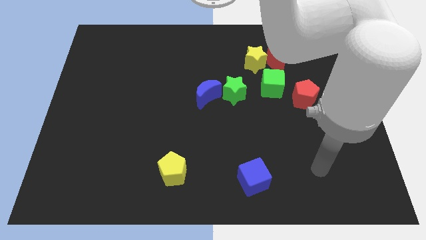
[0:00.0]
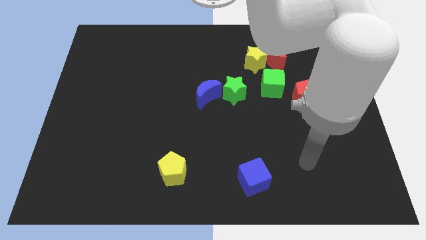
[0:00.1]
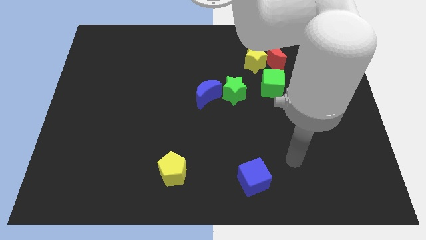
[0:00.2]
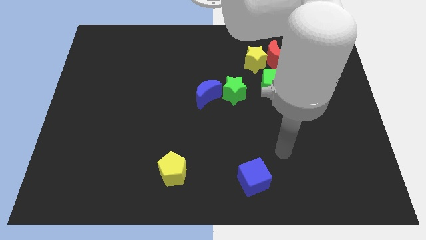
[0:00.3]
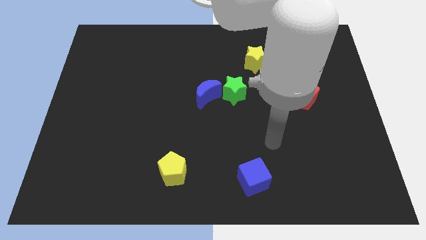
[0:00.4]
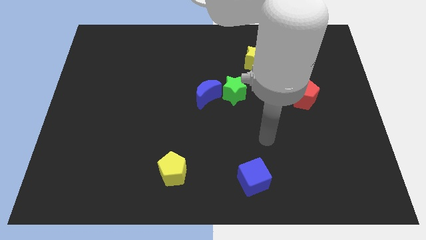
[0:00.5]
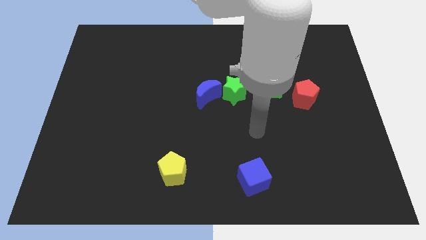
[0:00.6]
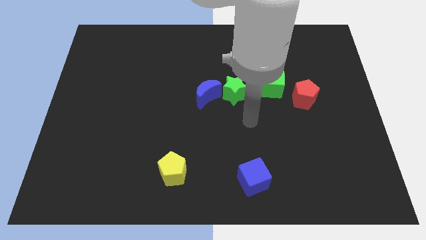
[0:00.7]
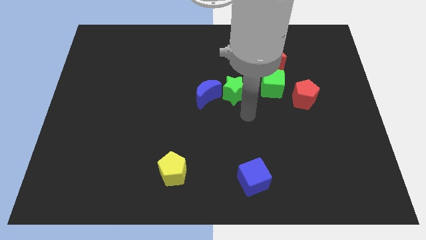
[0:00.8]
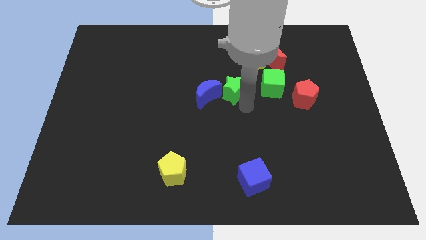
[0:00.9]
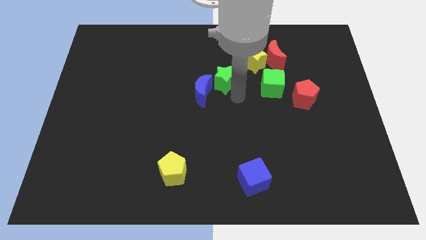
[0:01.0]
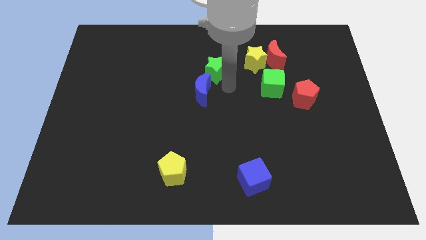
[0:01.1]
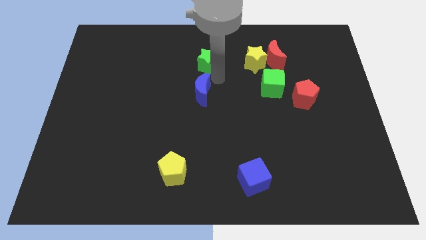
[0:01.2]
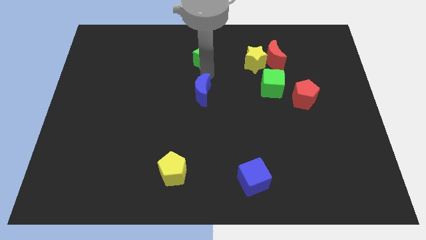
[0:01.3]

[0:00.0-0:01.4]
move the blue moon away from the green star

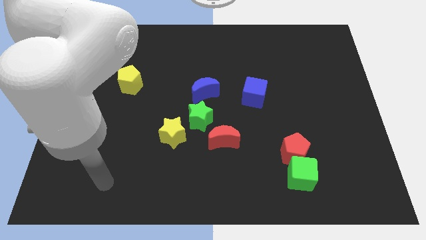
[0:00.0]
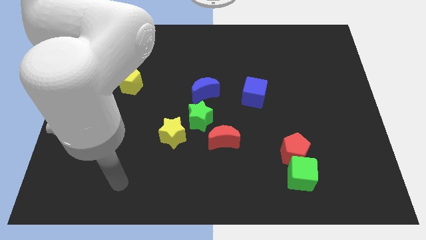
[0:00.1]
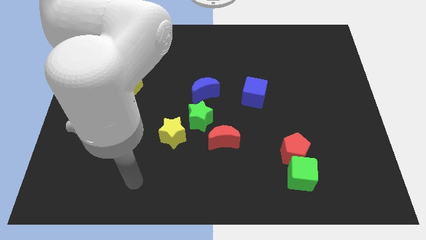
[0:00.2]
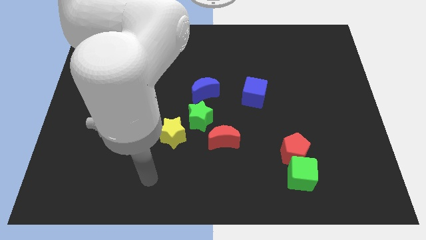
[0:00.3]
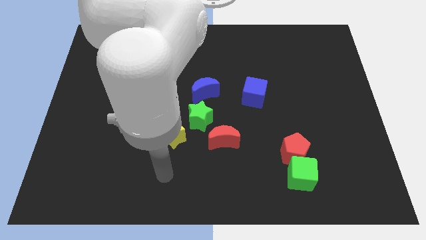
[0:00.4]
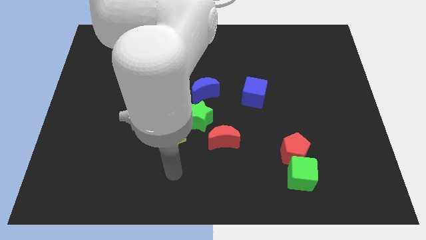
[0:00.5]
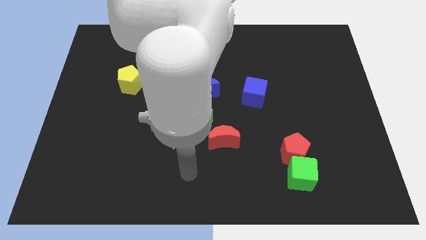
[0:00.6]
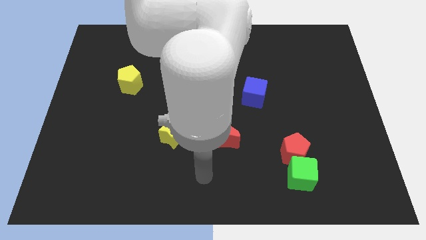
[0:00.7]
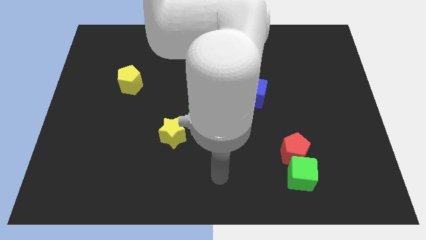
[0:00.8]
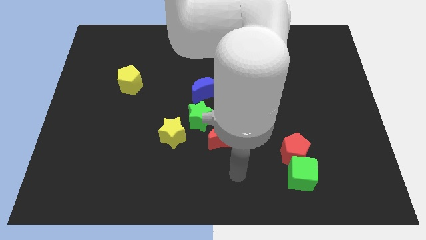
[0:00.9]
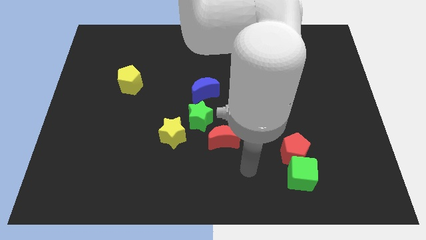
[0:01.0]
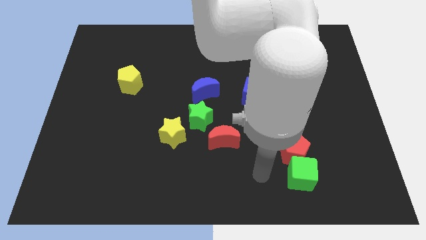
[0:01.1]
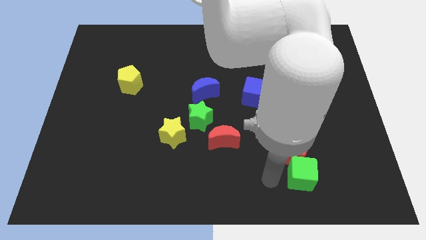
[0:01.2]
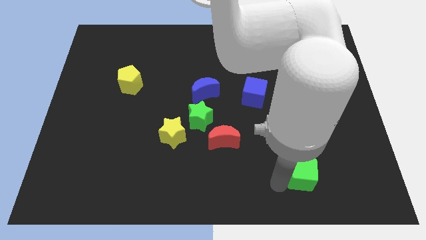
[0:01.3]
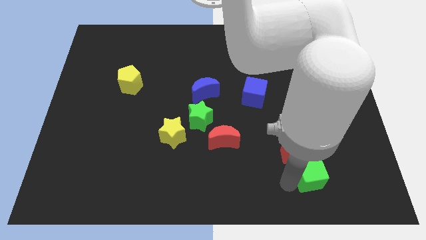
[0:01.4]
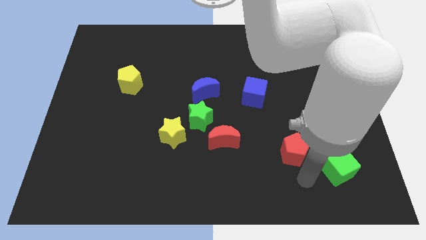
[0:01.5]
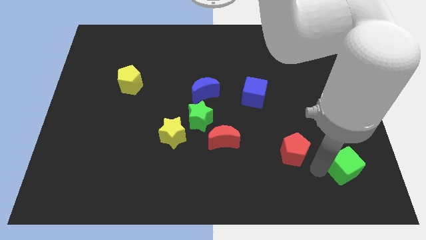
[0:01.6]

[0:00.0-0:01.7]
move the red pentagon away from the green cube

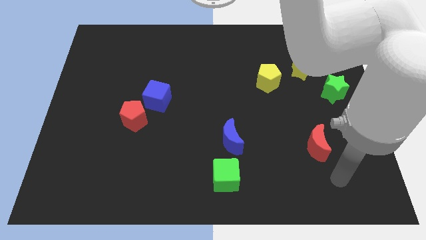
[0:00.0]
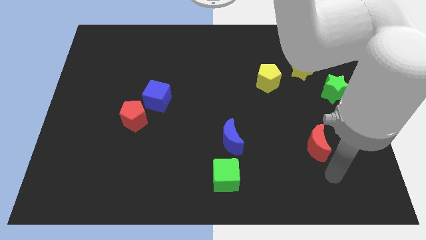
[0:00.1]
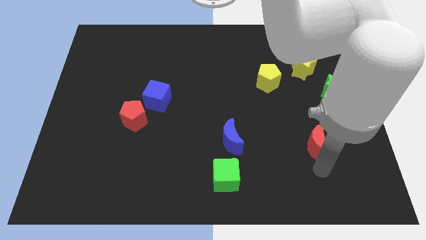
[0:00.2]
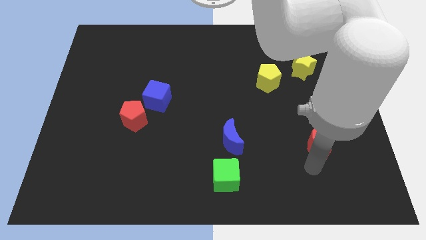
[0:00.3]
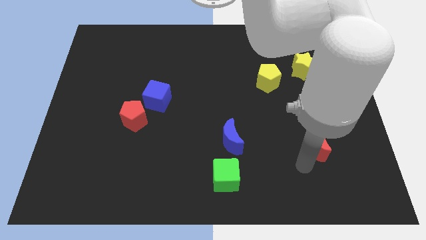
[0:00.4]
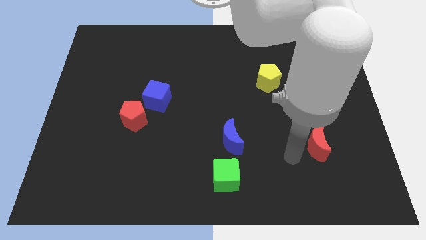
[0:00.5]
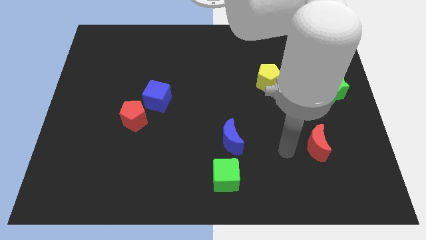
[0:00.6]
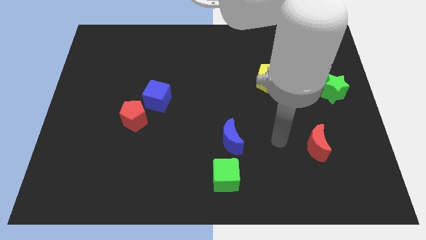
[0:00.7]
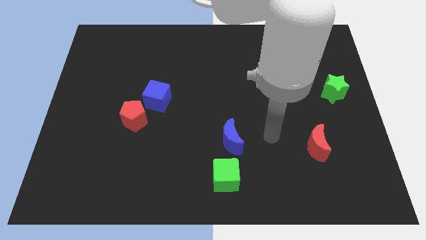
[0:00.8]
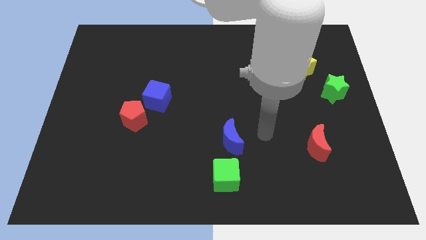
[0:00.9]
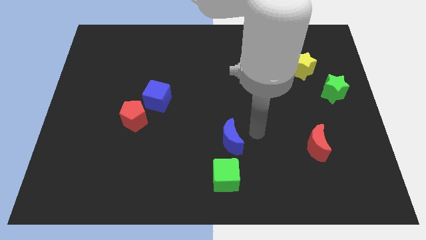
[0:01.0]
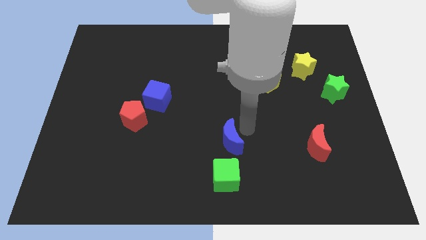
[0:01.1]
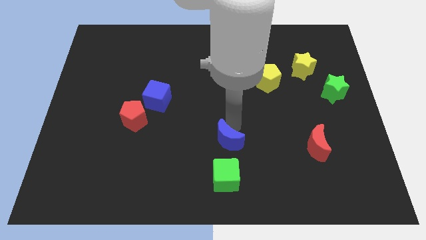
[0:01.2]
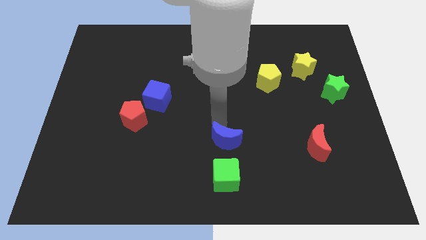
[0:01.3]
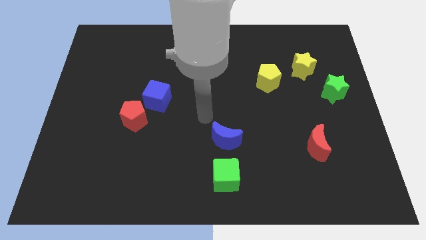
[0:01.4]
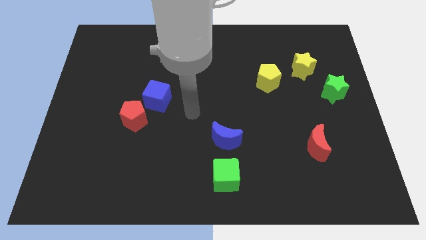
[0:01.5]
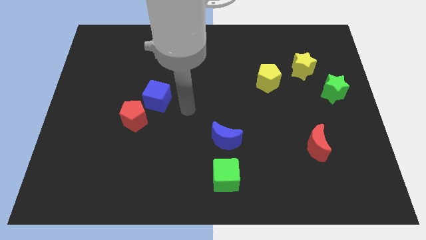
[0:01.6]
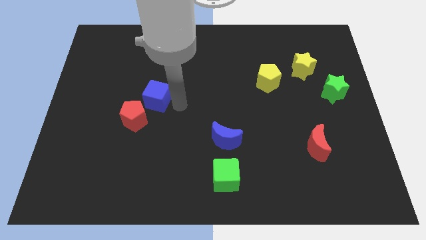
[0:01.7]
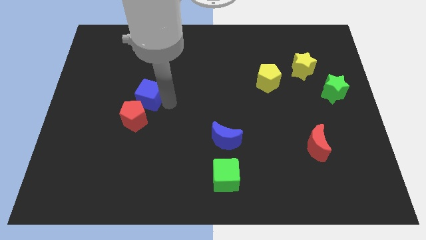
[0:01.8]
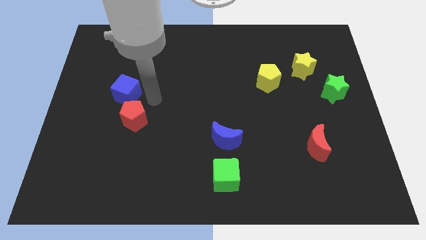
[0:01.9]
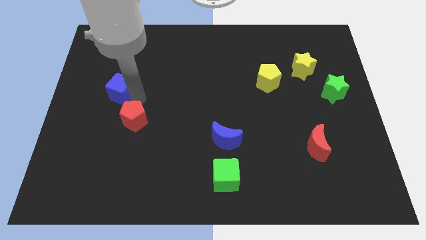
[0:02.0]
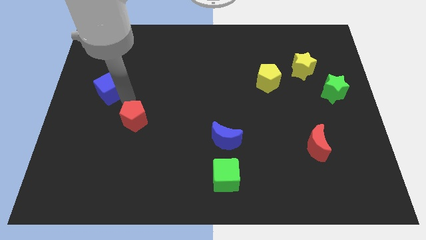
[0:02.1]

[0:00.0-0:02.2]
move the red pentagon away from the blue cube

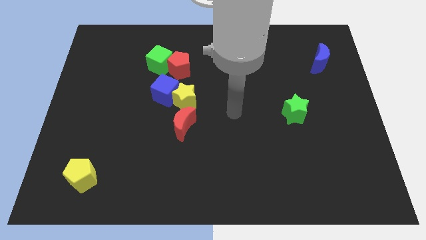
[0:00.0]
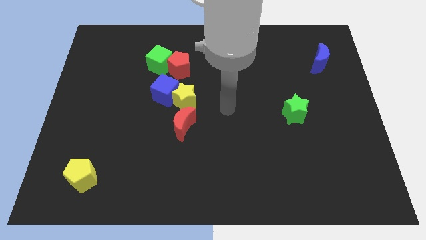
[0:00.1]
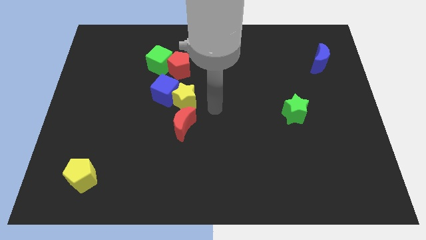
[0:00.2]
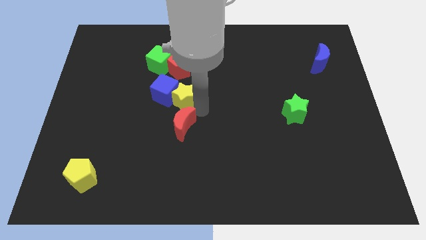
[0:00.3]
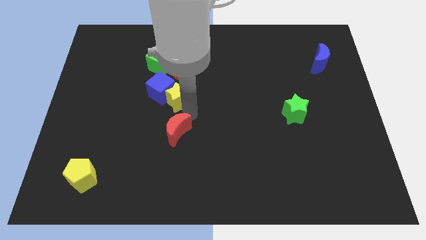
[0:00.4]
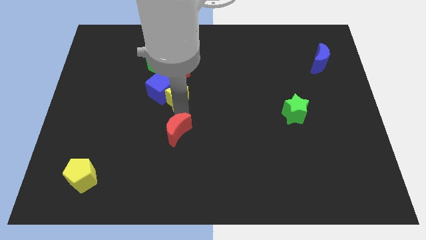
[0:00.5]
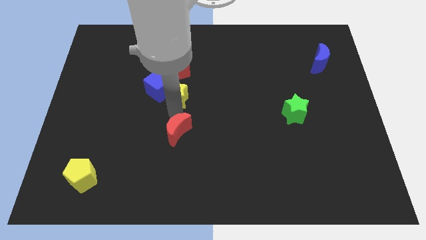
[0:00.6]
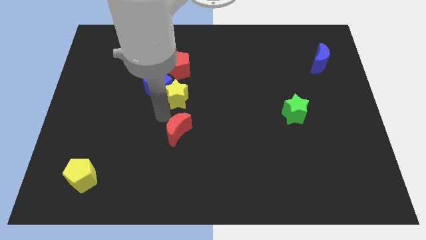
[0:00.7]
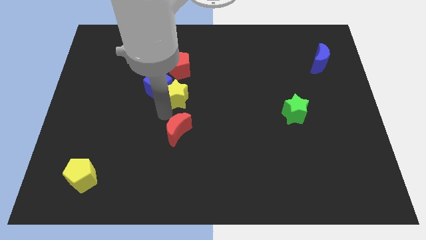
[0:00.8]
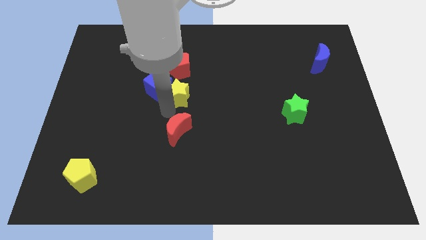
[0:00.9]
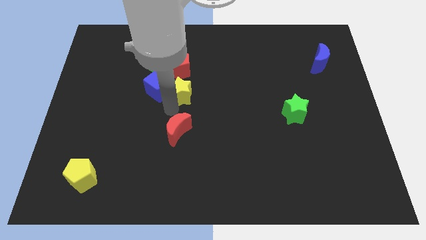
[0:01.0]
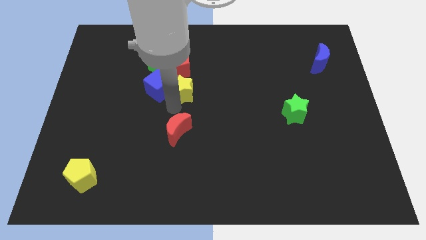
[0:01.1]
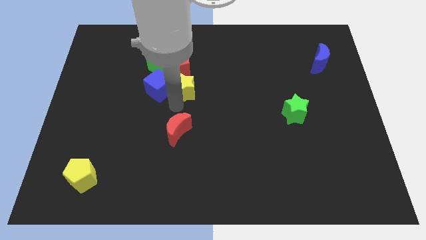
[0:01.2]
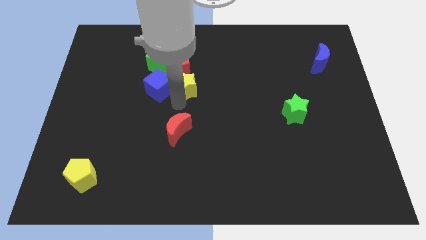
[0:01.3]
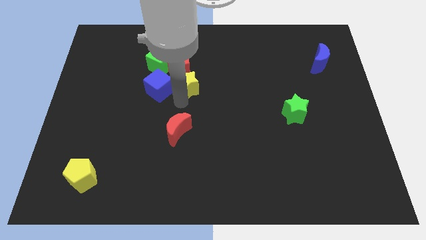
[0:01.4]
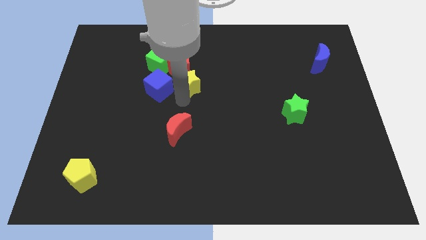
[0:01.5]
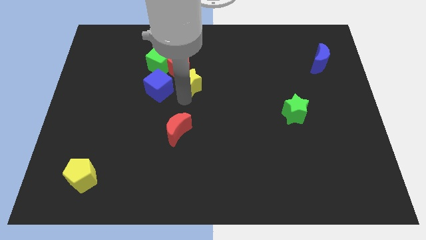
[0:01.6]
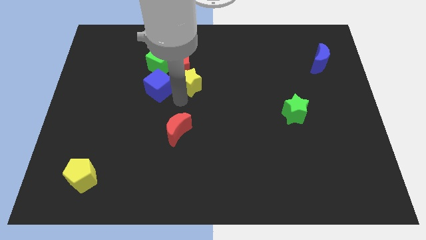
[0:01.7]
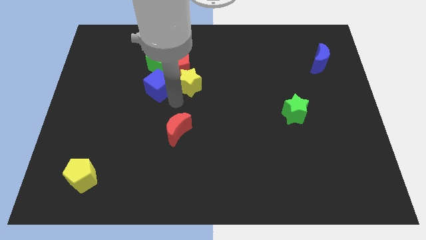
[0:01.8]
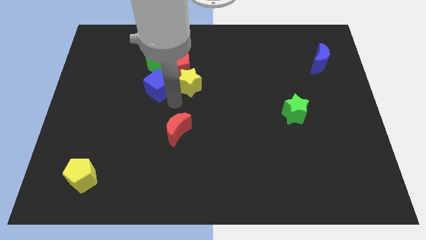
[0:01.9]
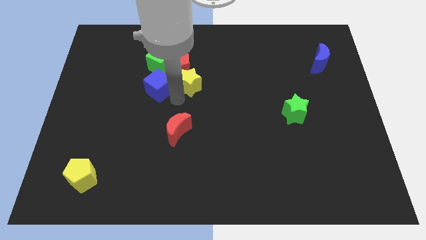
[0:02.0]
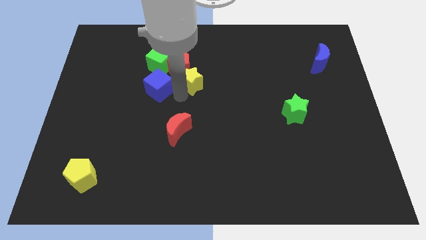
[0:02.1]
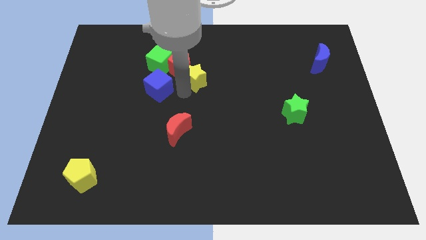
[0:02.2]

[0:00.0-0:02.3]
move the yellow star away from the blue cube and red moon

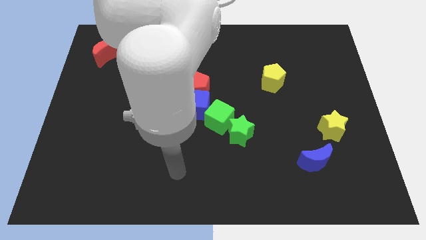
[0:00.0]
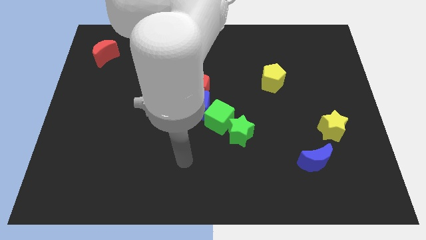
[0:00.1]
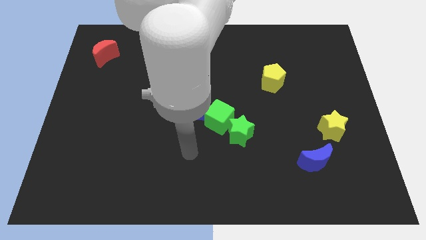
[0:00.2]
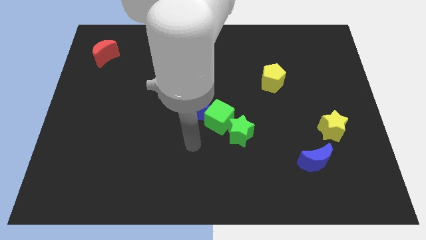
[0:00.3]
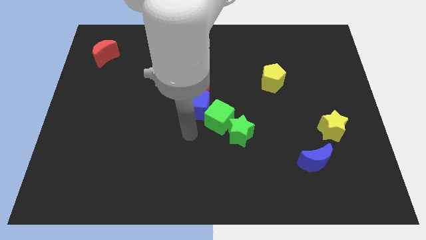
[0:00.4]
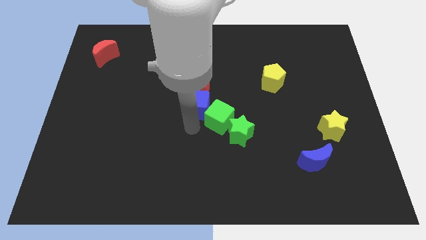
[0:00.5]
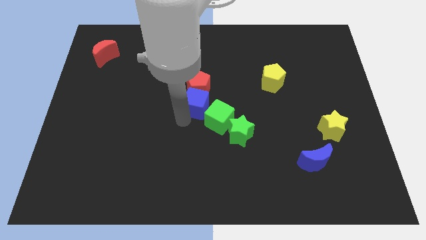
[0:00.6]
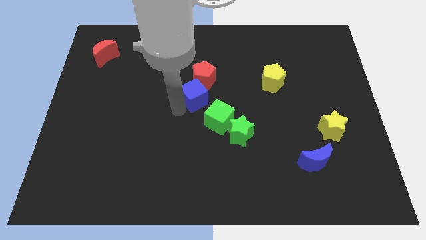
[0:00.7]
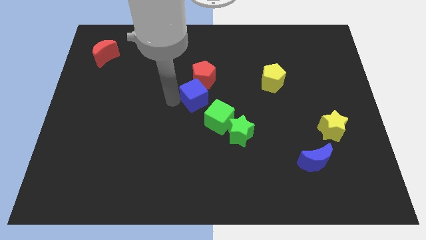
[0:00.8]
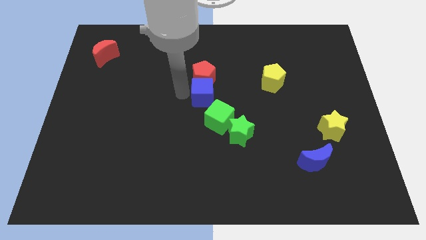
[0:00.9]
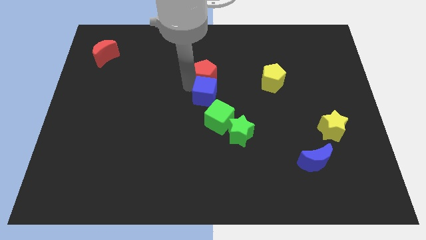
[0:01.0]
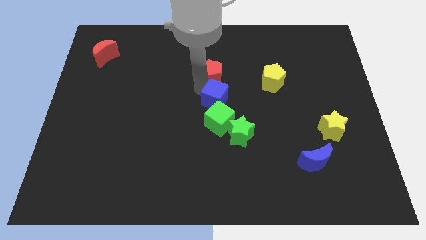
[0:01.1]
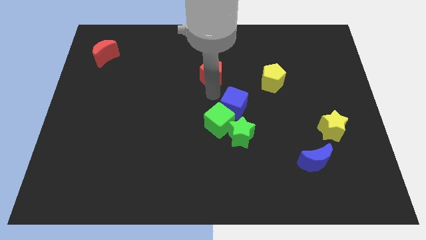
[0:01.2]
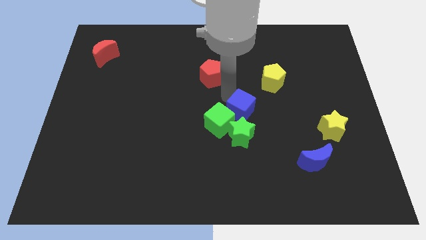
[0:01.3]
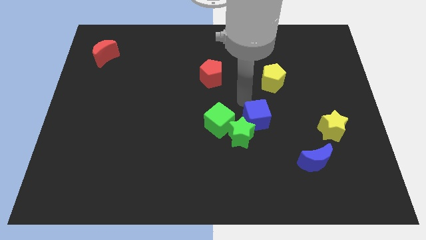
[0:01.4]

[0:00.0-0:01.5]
pull the blue cube apart from the red pentagon and green cube

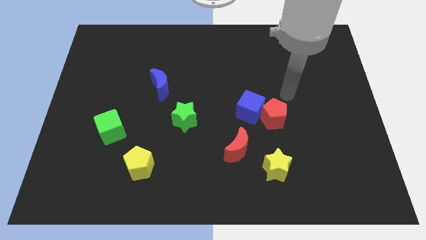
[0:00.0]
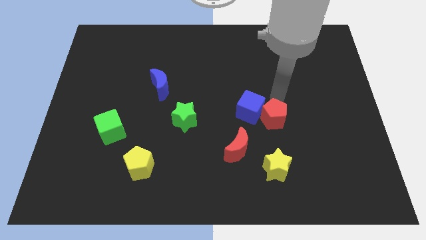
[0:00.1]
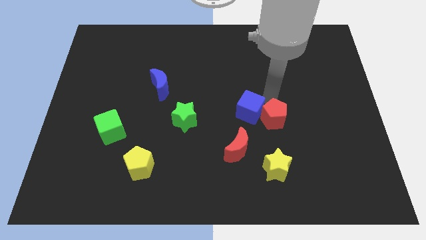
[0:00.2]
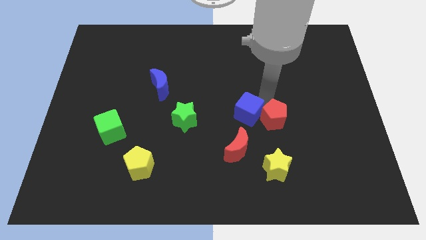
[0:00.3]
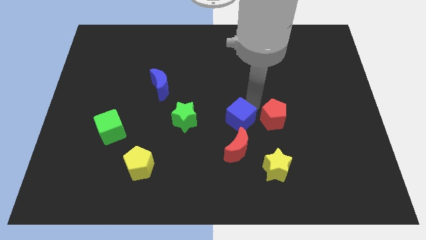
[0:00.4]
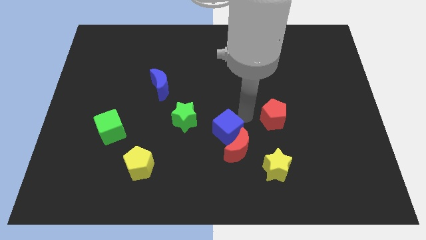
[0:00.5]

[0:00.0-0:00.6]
pull the red pentagon apart from the blue cube
